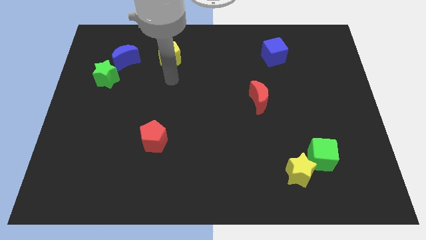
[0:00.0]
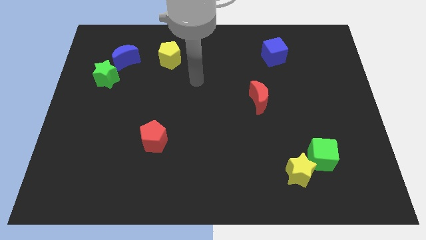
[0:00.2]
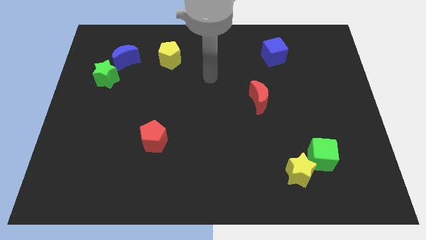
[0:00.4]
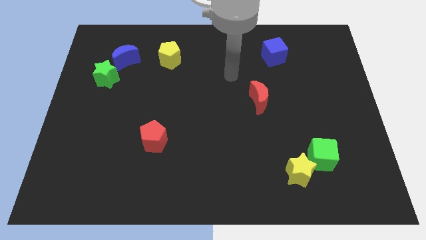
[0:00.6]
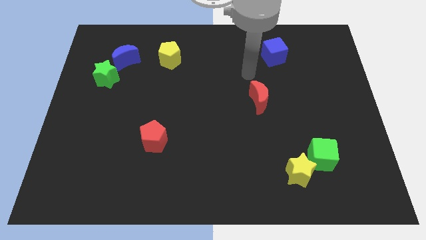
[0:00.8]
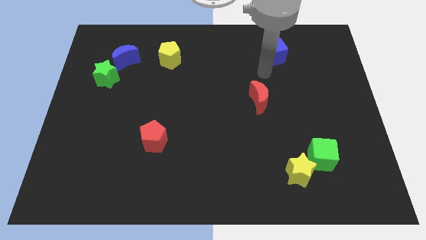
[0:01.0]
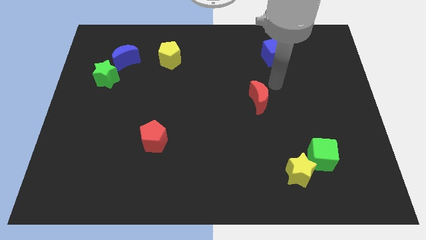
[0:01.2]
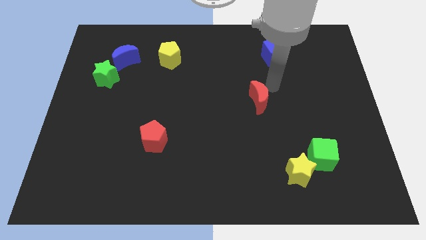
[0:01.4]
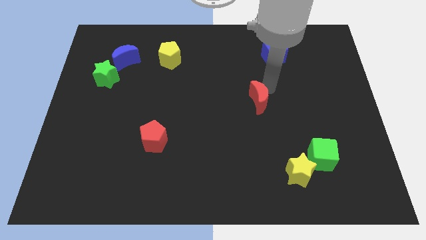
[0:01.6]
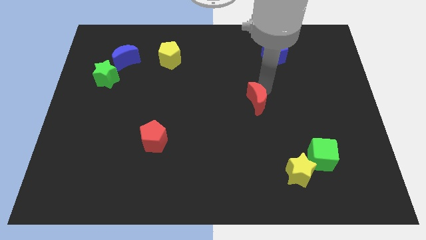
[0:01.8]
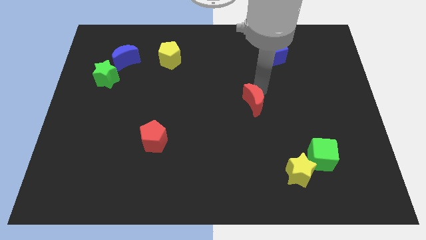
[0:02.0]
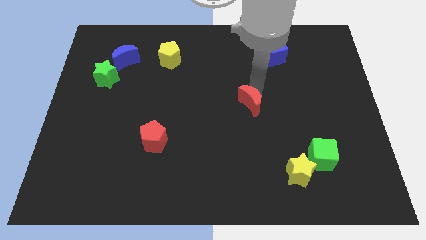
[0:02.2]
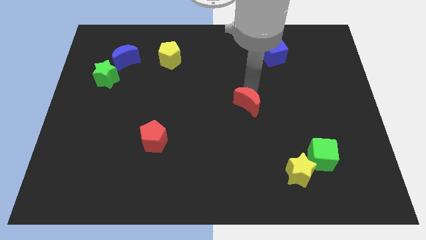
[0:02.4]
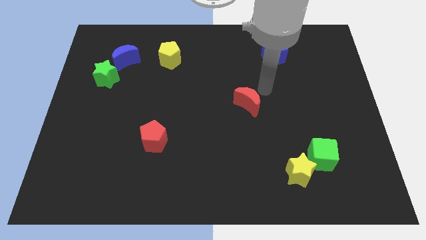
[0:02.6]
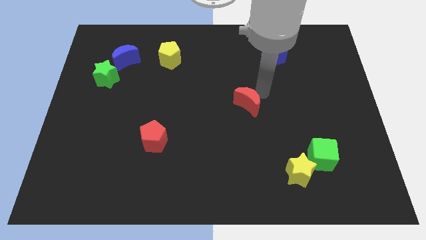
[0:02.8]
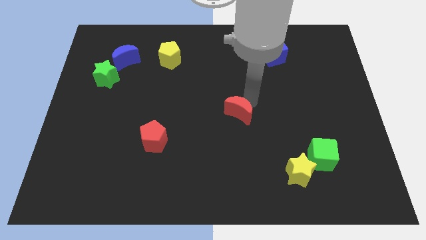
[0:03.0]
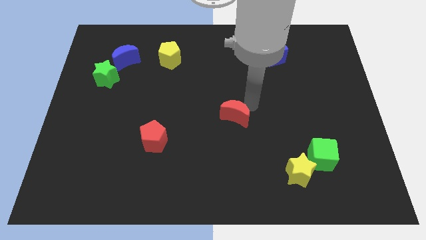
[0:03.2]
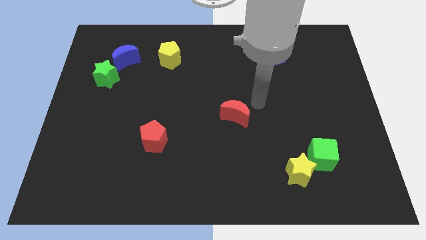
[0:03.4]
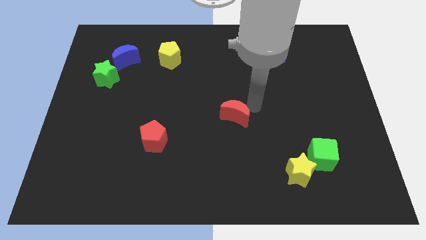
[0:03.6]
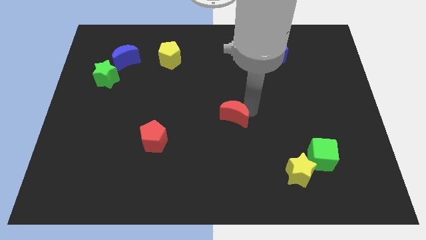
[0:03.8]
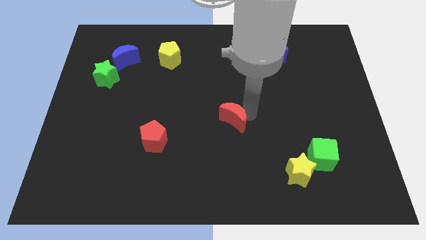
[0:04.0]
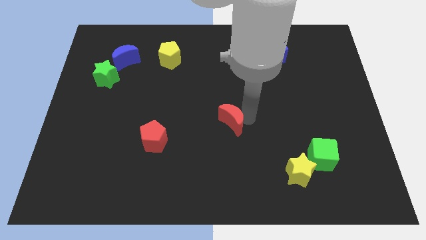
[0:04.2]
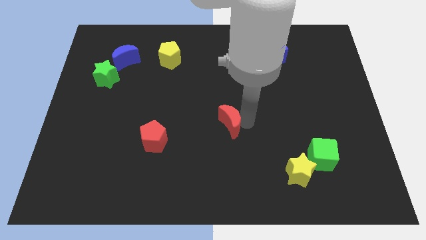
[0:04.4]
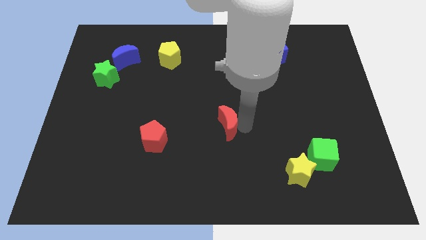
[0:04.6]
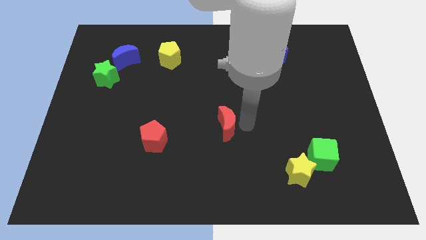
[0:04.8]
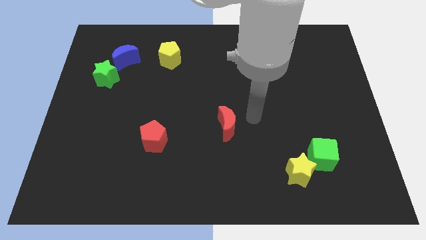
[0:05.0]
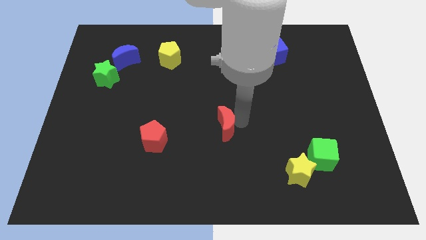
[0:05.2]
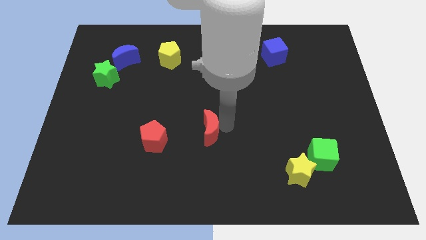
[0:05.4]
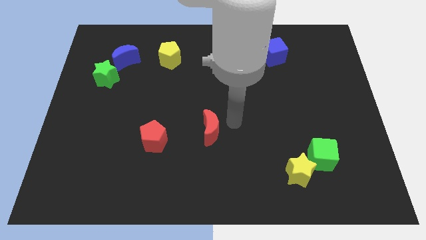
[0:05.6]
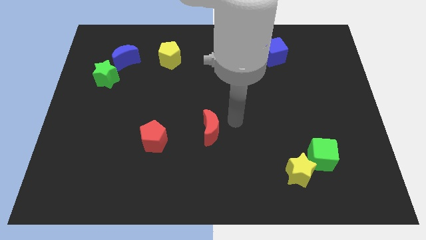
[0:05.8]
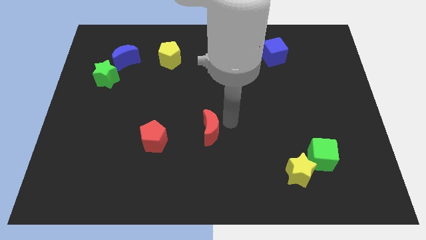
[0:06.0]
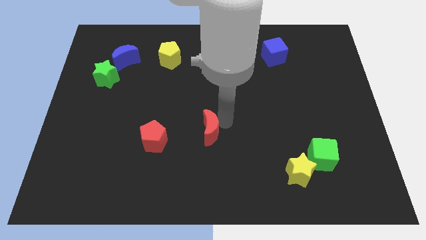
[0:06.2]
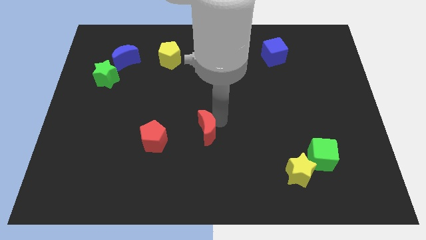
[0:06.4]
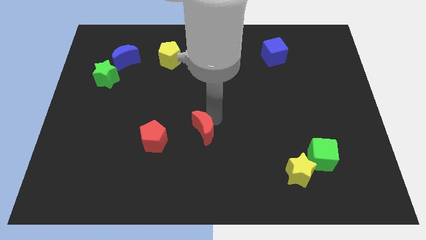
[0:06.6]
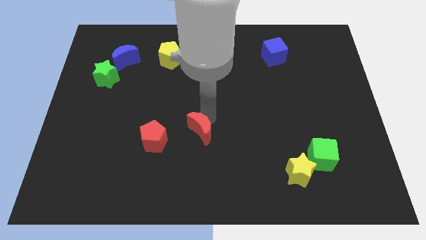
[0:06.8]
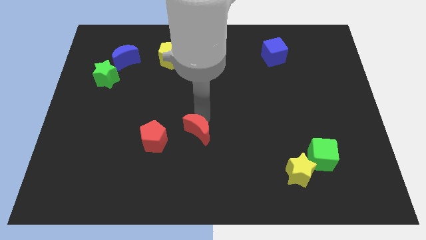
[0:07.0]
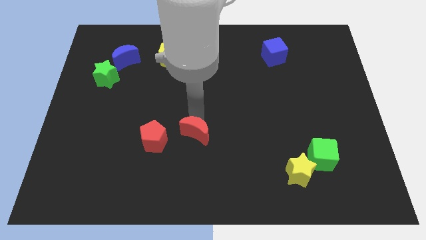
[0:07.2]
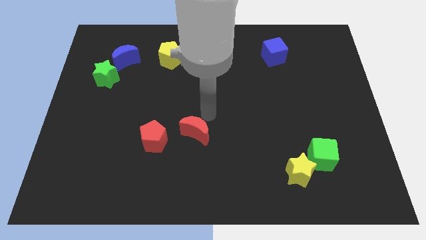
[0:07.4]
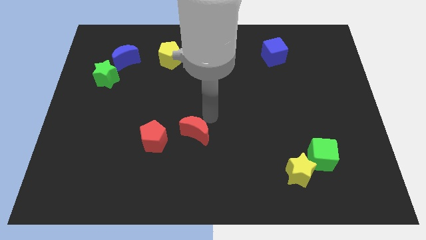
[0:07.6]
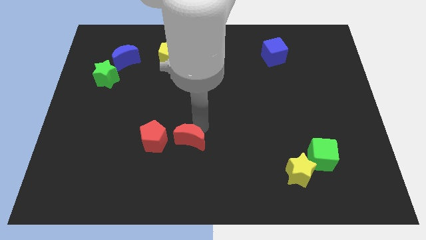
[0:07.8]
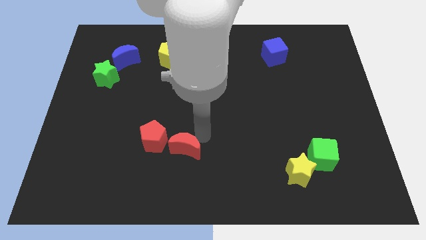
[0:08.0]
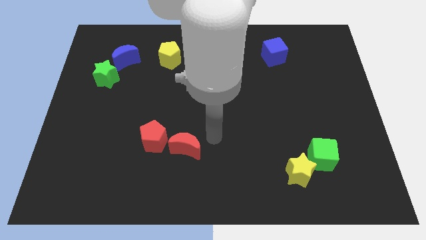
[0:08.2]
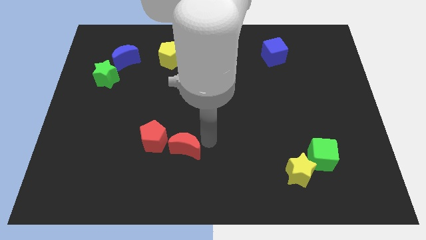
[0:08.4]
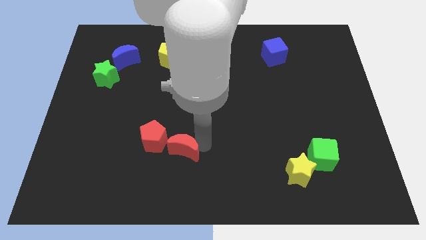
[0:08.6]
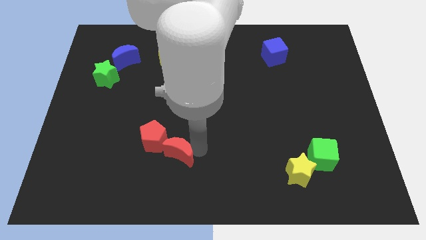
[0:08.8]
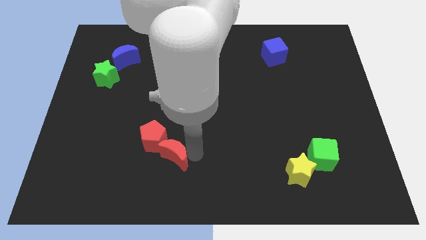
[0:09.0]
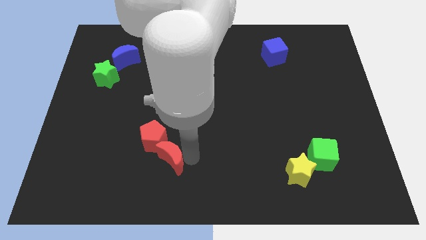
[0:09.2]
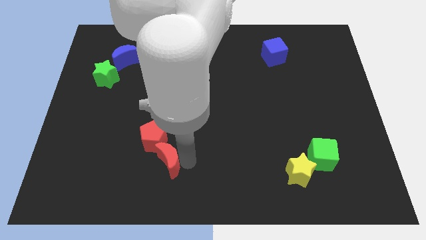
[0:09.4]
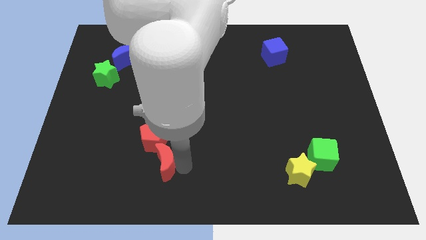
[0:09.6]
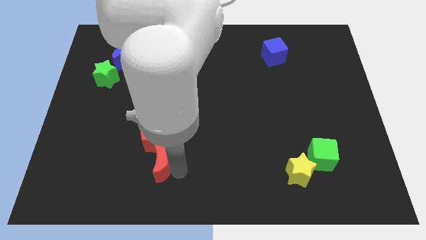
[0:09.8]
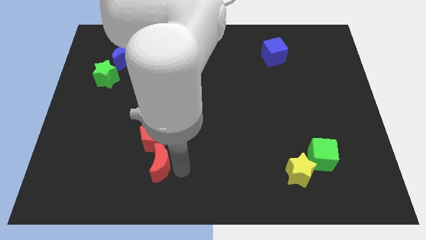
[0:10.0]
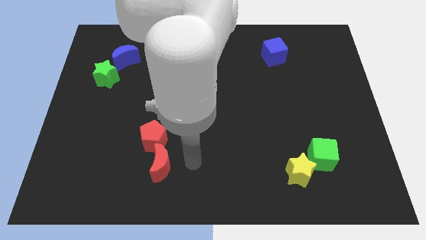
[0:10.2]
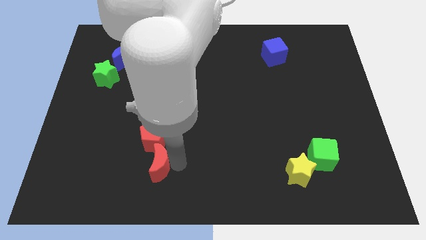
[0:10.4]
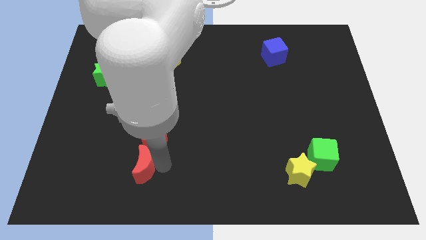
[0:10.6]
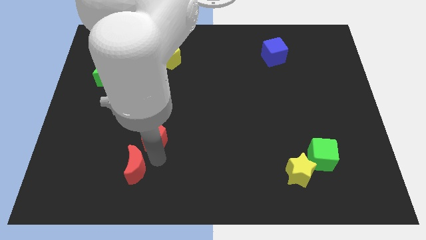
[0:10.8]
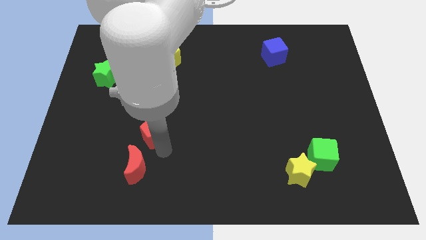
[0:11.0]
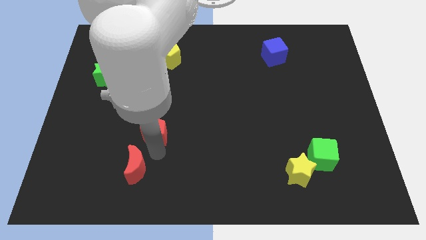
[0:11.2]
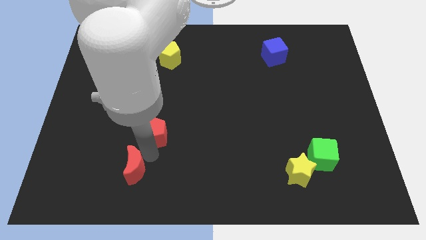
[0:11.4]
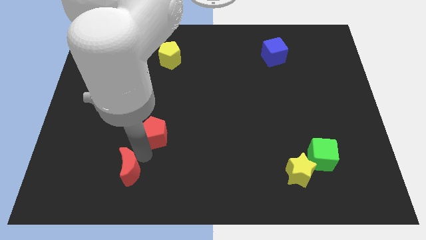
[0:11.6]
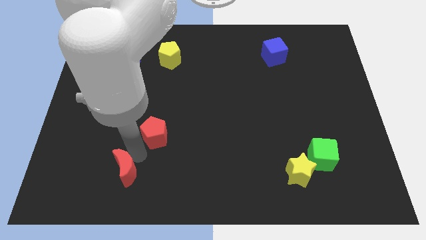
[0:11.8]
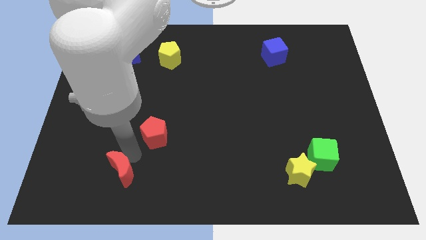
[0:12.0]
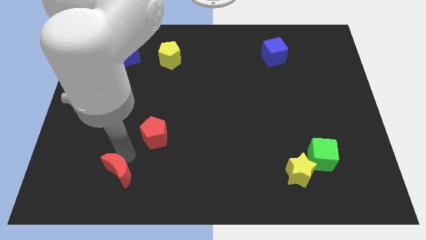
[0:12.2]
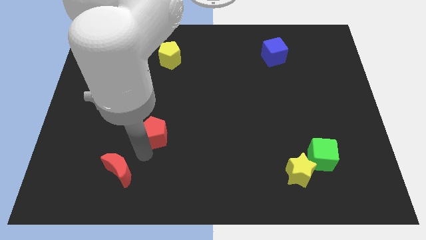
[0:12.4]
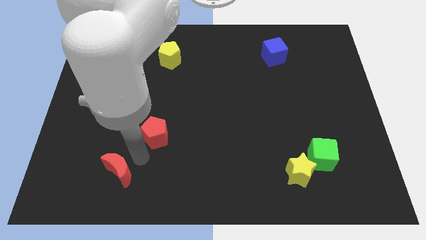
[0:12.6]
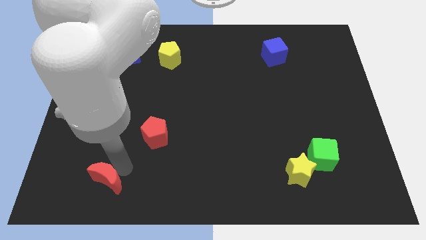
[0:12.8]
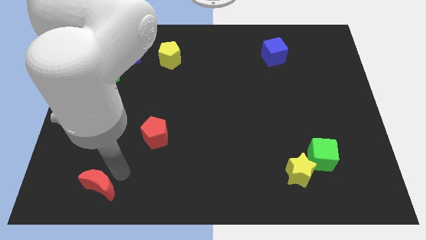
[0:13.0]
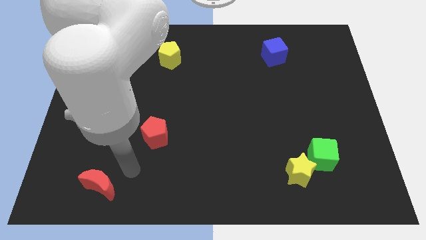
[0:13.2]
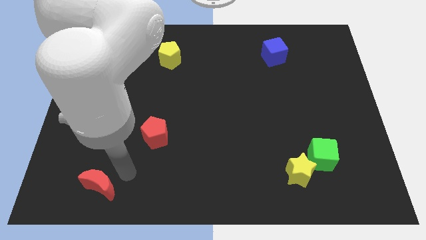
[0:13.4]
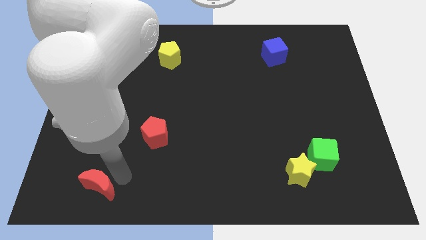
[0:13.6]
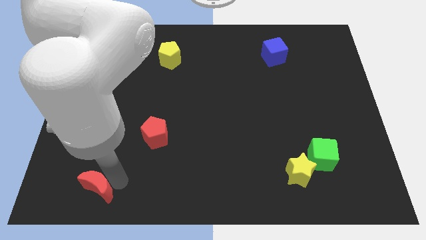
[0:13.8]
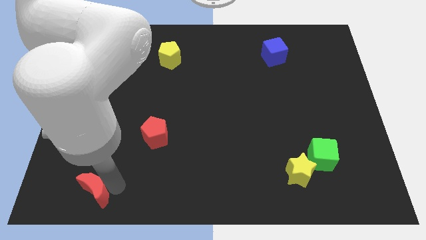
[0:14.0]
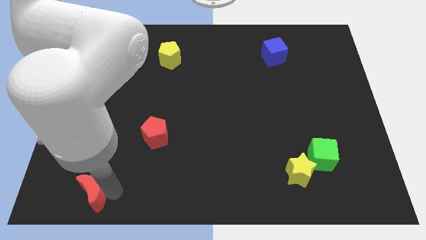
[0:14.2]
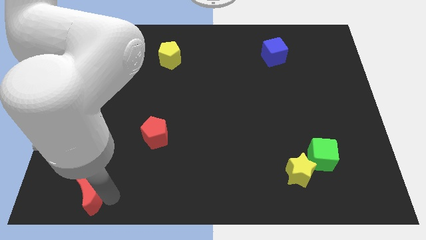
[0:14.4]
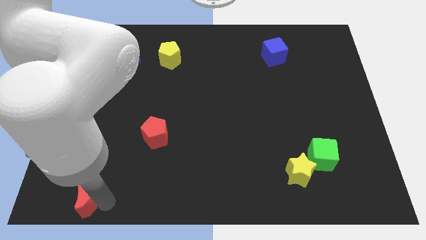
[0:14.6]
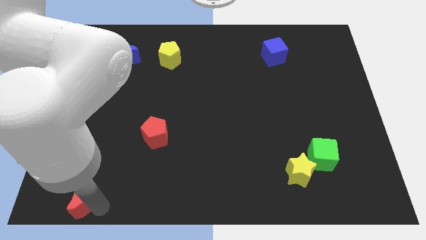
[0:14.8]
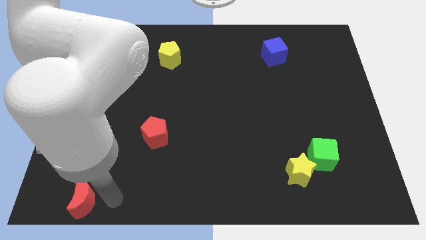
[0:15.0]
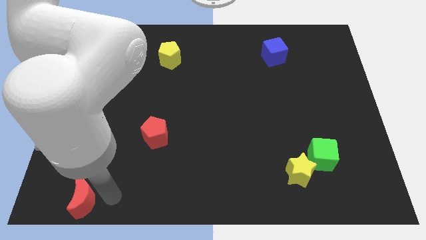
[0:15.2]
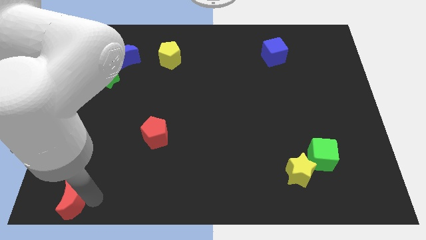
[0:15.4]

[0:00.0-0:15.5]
move the red moon to the lower left corner
